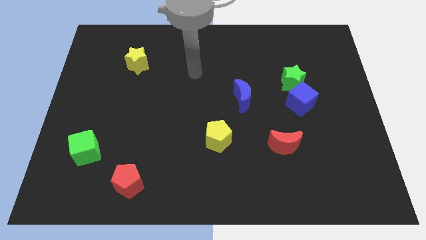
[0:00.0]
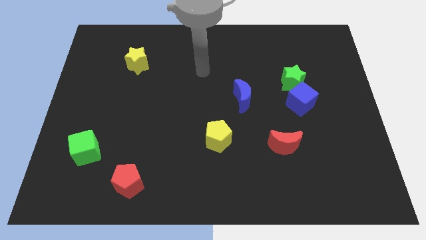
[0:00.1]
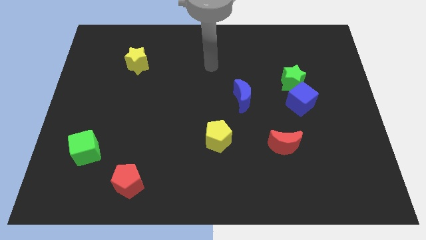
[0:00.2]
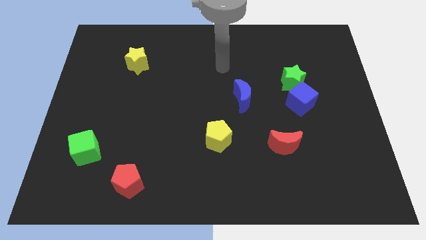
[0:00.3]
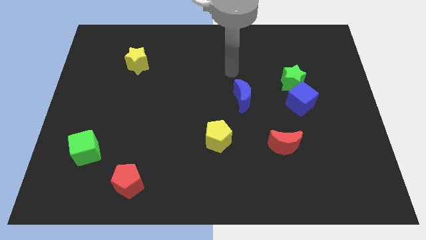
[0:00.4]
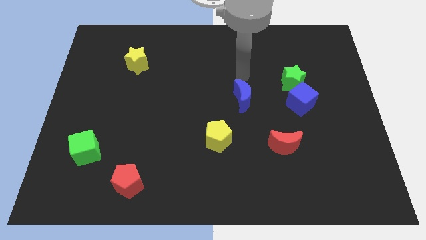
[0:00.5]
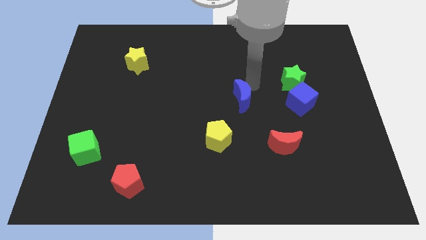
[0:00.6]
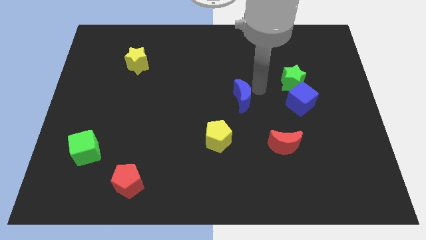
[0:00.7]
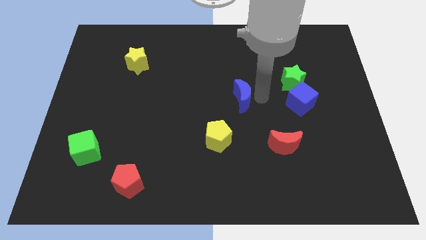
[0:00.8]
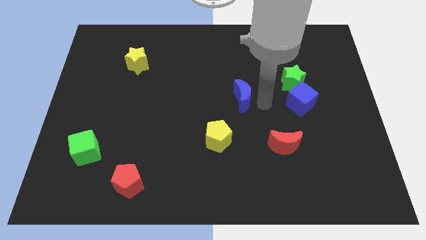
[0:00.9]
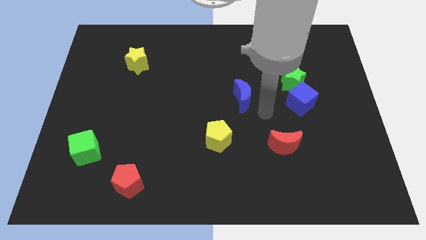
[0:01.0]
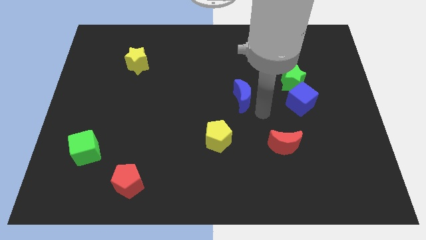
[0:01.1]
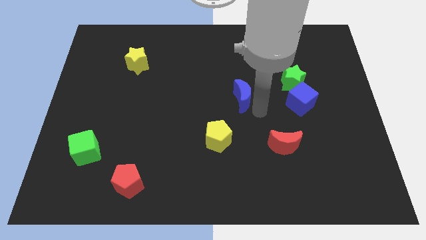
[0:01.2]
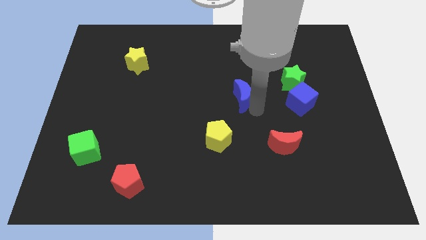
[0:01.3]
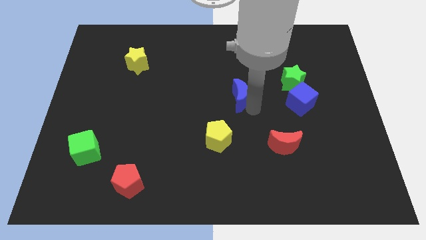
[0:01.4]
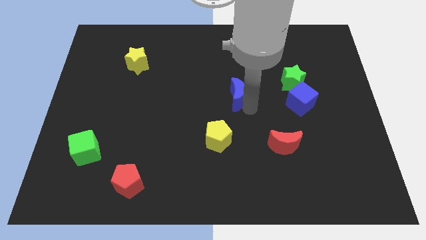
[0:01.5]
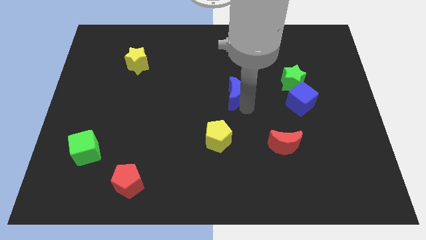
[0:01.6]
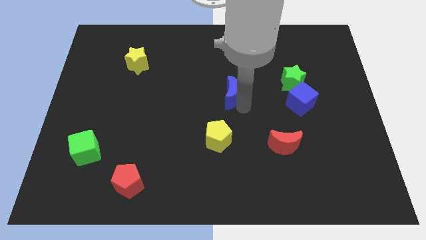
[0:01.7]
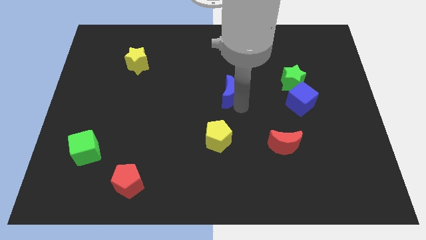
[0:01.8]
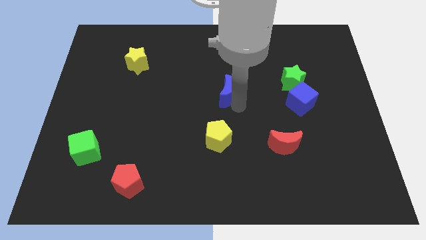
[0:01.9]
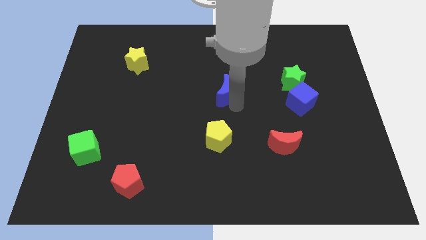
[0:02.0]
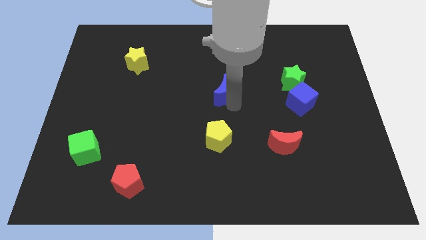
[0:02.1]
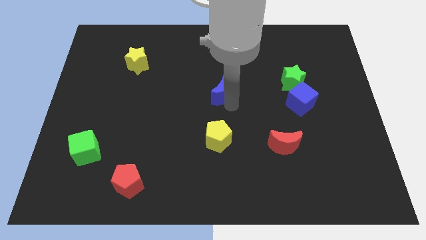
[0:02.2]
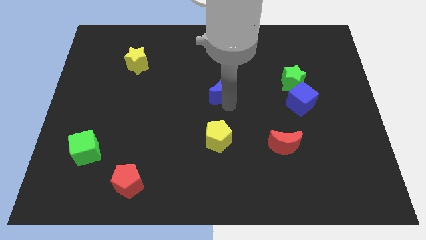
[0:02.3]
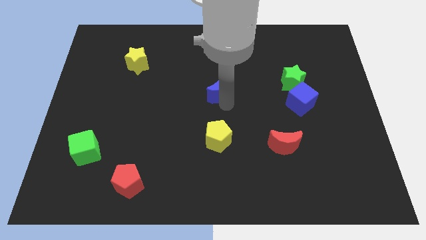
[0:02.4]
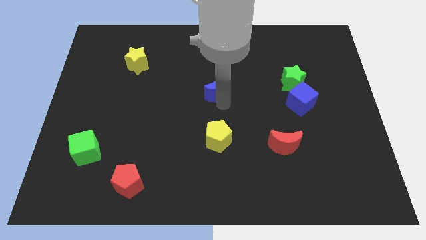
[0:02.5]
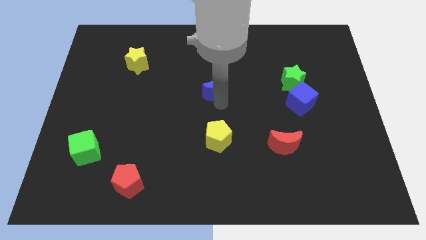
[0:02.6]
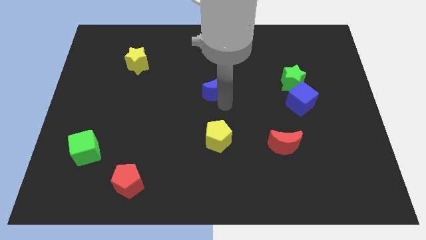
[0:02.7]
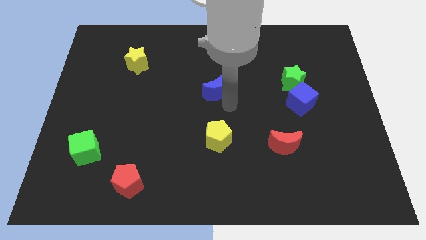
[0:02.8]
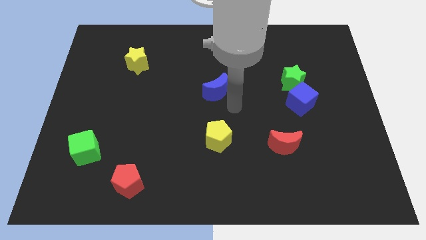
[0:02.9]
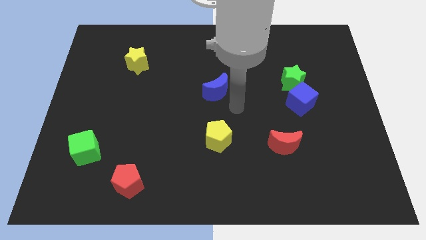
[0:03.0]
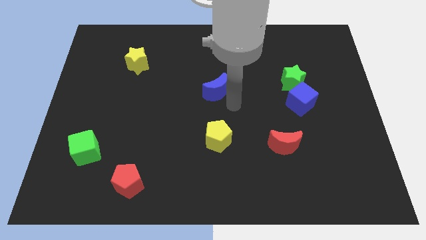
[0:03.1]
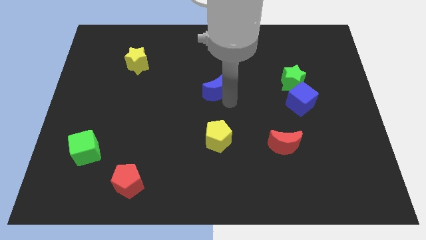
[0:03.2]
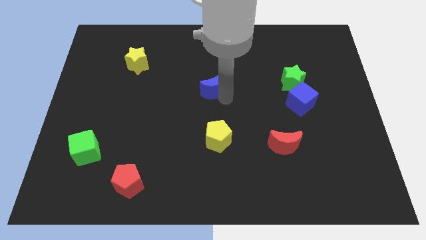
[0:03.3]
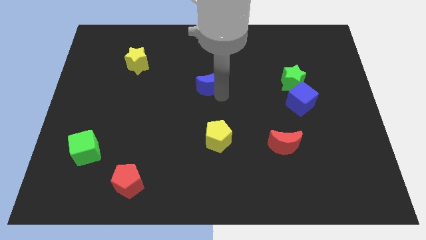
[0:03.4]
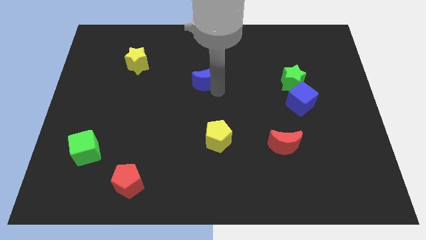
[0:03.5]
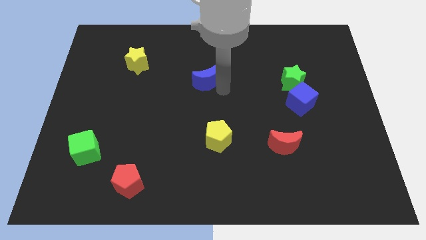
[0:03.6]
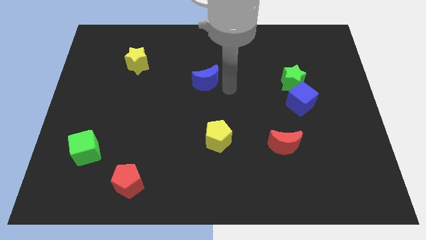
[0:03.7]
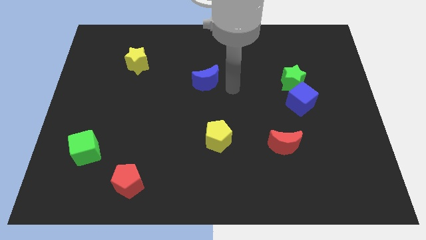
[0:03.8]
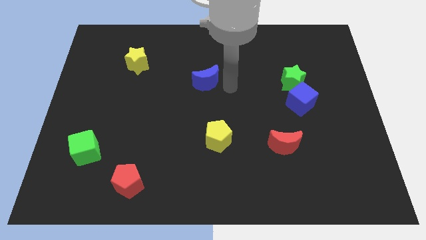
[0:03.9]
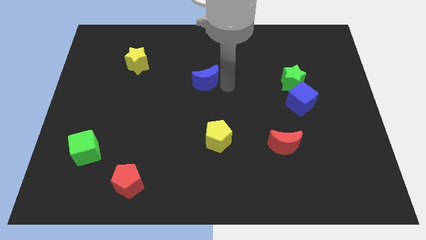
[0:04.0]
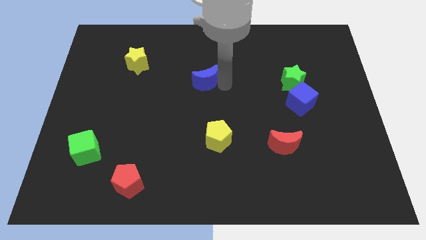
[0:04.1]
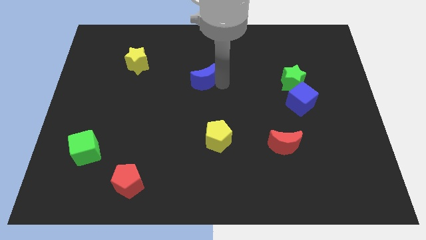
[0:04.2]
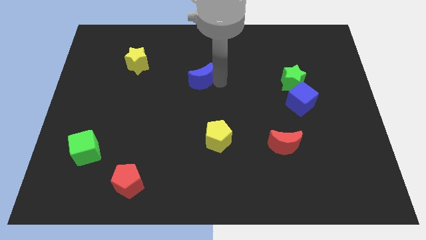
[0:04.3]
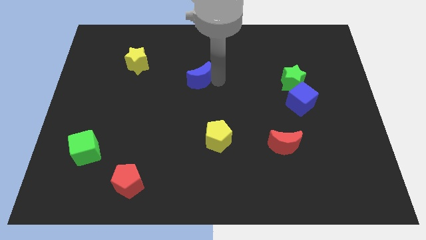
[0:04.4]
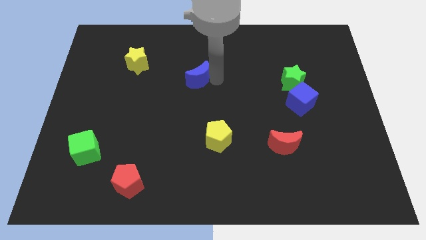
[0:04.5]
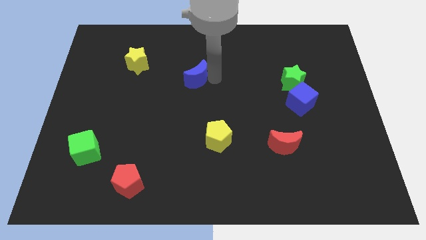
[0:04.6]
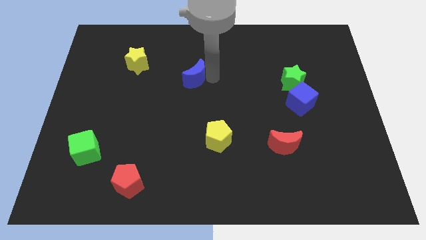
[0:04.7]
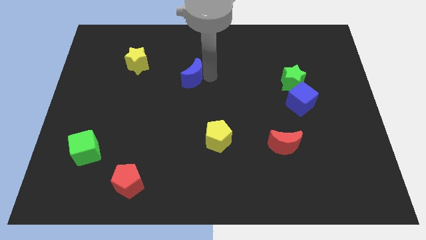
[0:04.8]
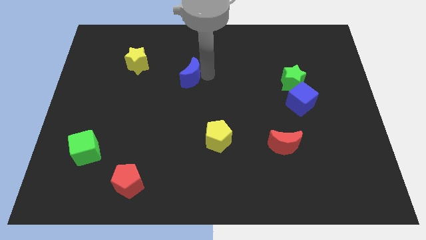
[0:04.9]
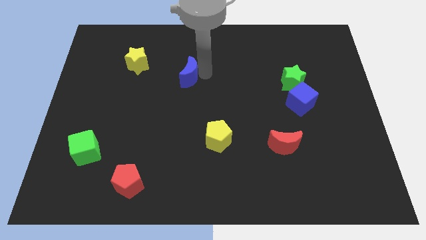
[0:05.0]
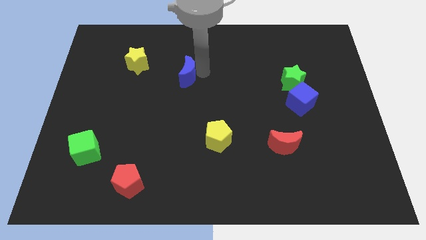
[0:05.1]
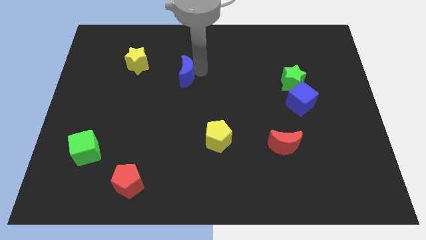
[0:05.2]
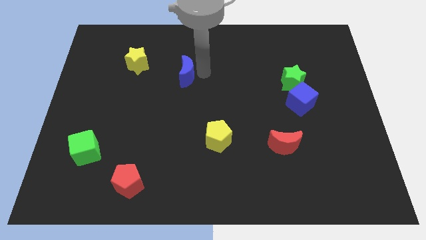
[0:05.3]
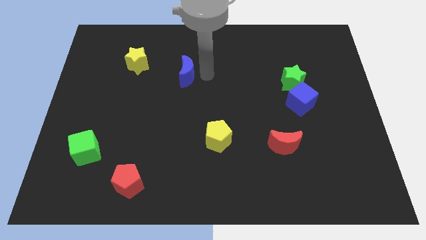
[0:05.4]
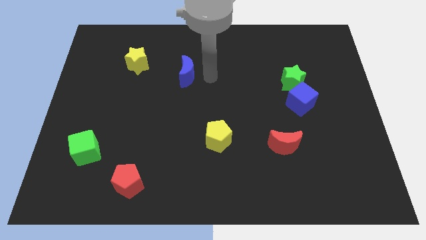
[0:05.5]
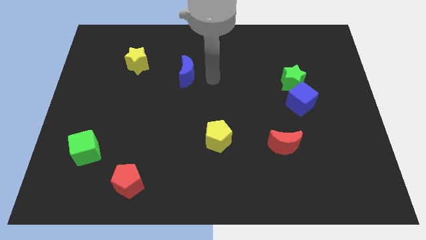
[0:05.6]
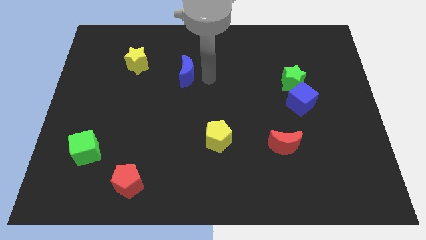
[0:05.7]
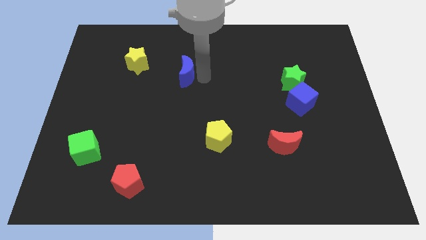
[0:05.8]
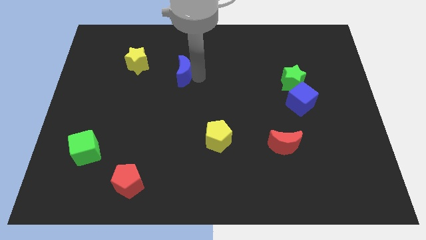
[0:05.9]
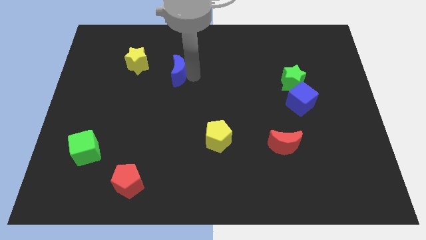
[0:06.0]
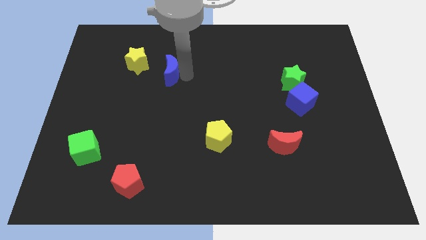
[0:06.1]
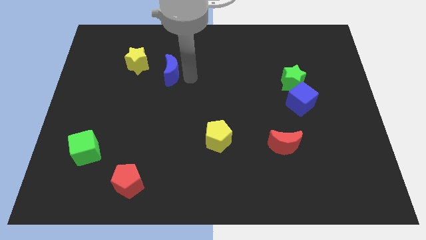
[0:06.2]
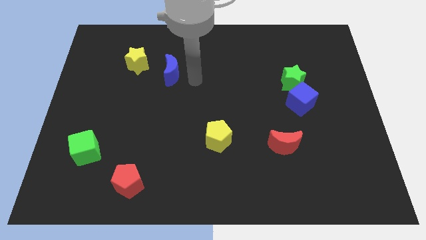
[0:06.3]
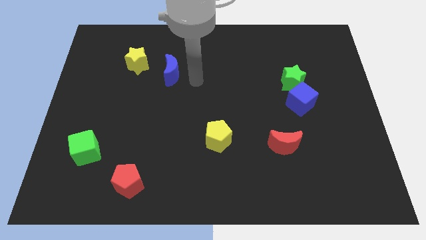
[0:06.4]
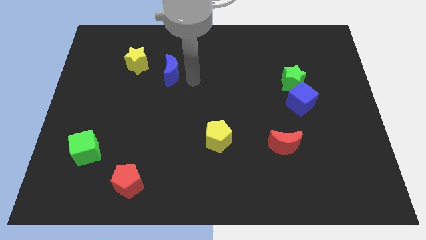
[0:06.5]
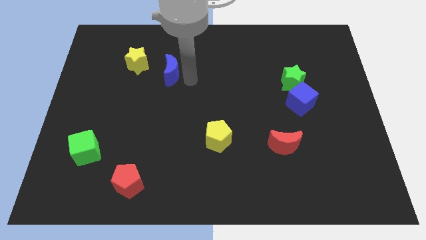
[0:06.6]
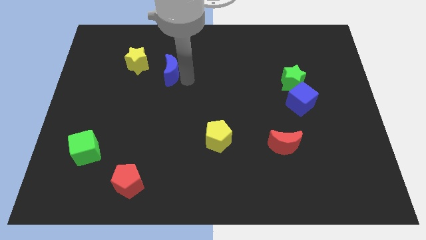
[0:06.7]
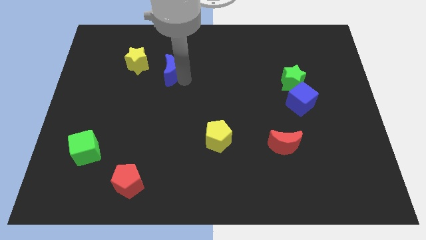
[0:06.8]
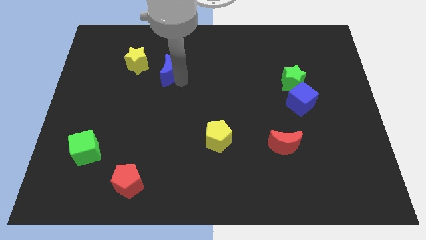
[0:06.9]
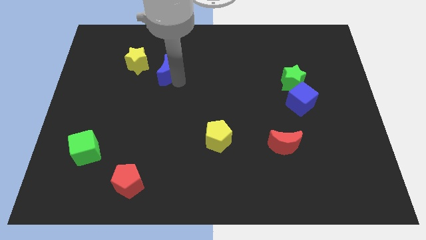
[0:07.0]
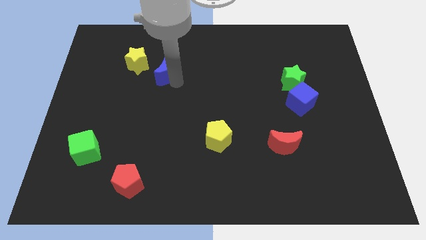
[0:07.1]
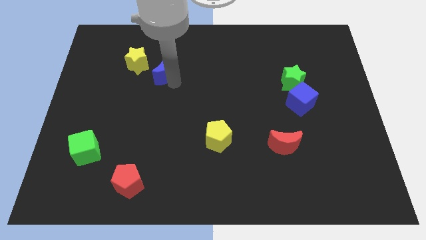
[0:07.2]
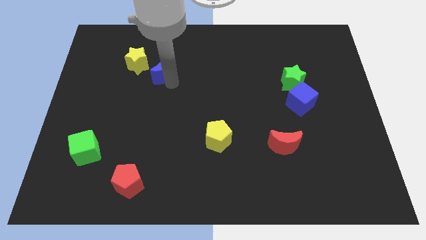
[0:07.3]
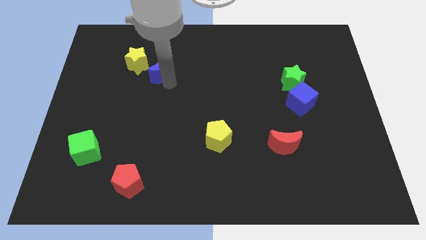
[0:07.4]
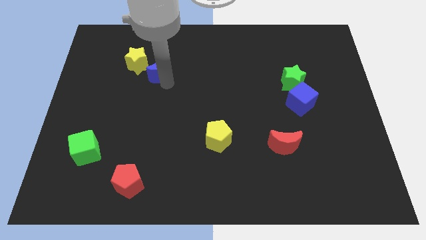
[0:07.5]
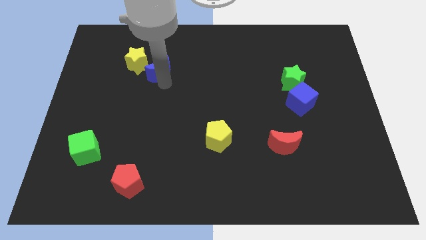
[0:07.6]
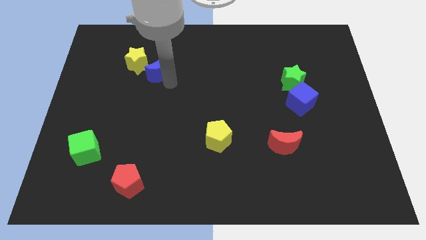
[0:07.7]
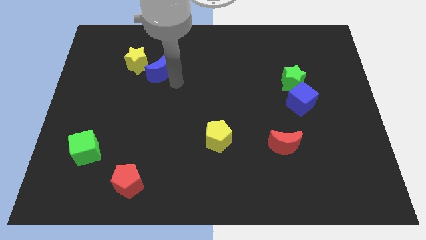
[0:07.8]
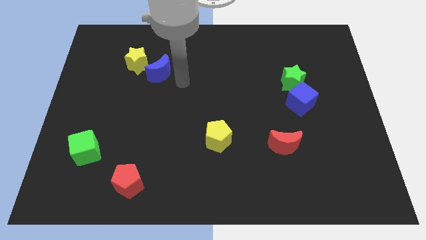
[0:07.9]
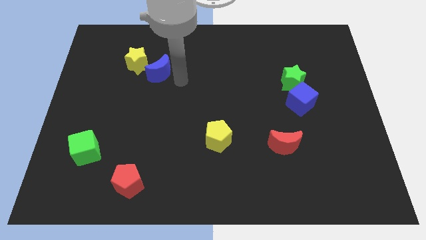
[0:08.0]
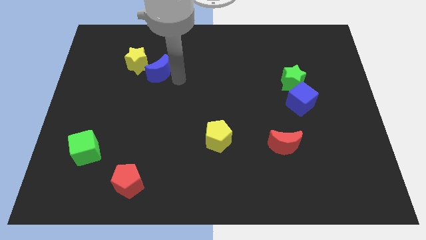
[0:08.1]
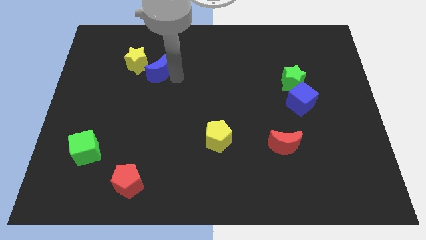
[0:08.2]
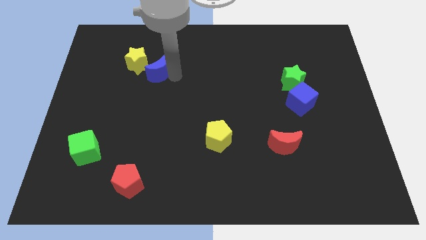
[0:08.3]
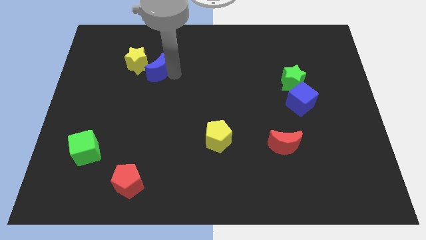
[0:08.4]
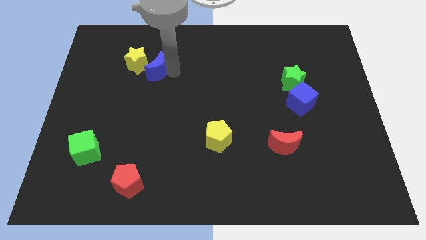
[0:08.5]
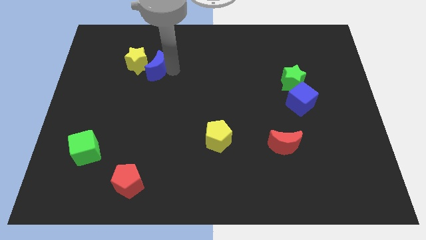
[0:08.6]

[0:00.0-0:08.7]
move the blue moon to the yellow star
